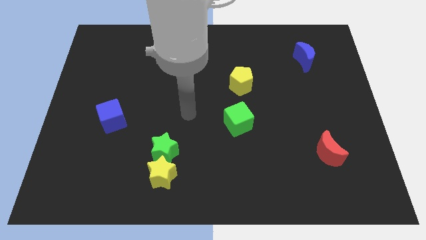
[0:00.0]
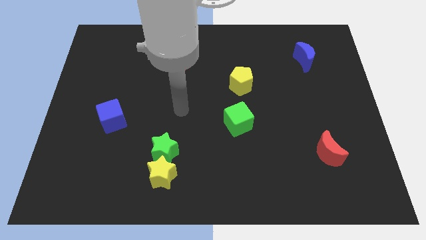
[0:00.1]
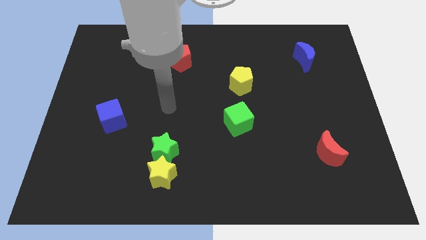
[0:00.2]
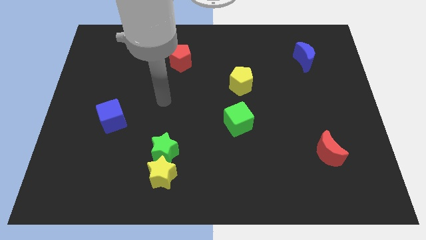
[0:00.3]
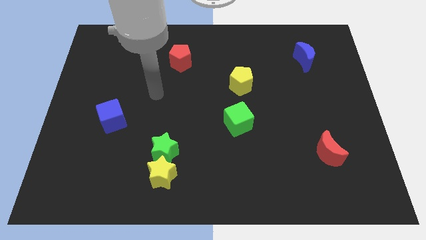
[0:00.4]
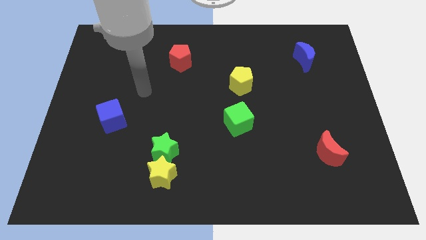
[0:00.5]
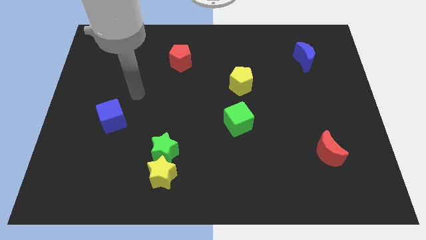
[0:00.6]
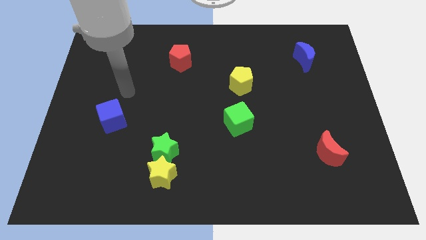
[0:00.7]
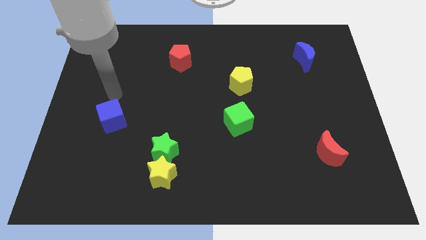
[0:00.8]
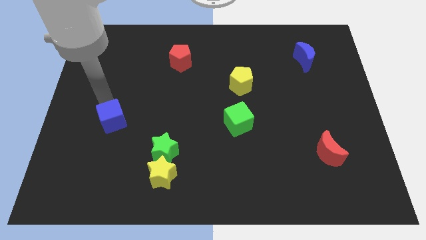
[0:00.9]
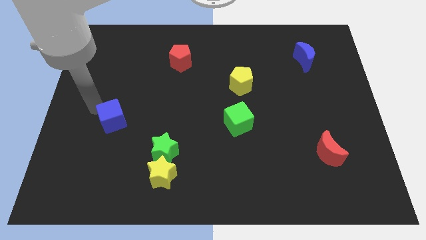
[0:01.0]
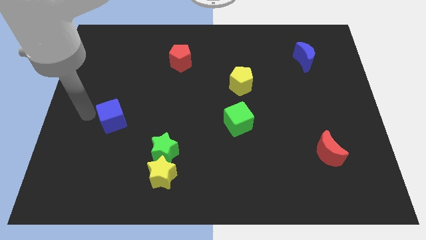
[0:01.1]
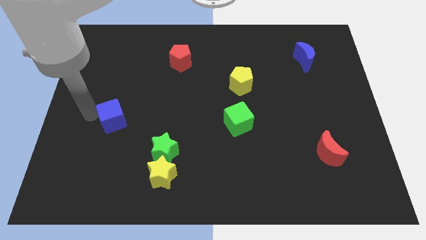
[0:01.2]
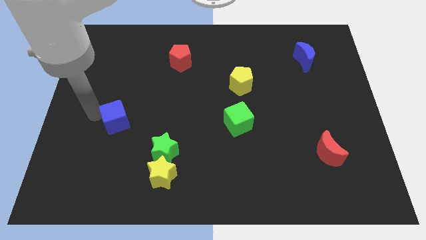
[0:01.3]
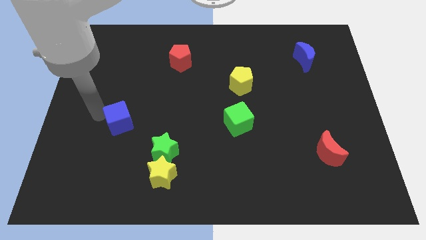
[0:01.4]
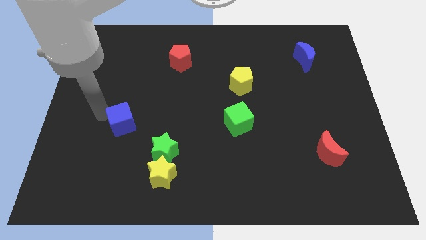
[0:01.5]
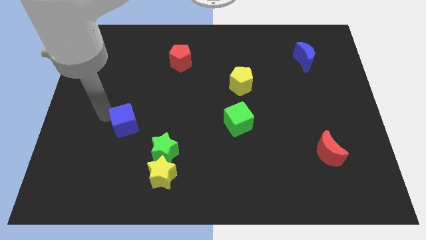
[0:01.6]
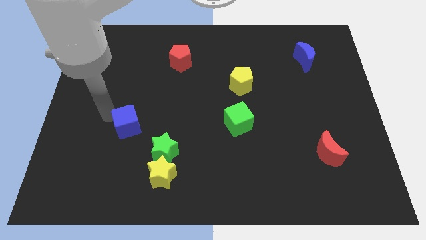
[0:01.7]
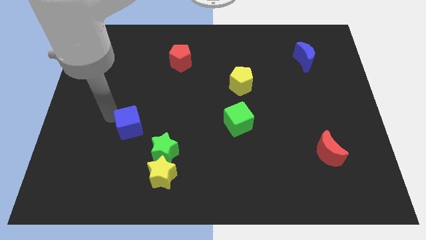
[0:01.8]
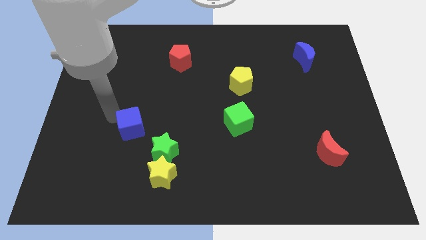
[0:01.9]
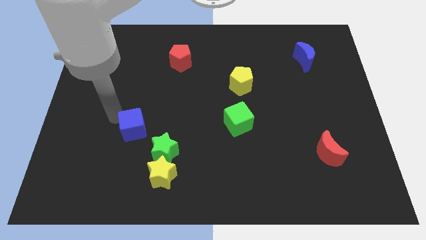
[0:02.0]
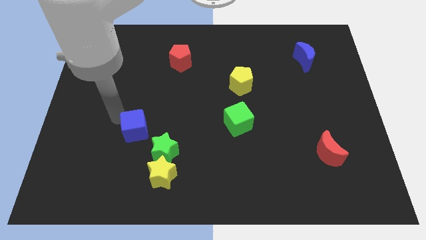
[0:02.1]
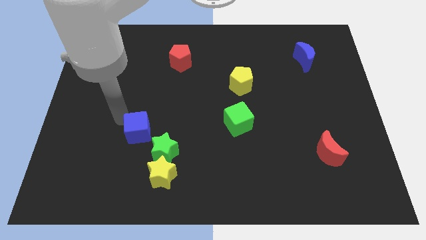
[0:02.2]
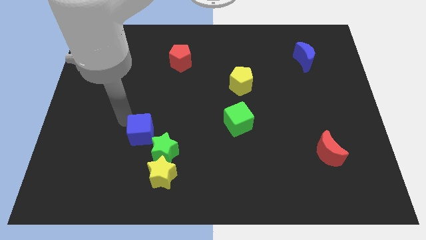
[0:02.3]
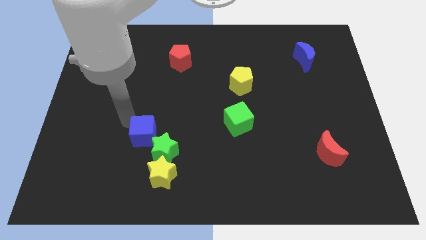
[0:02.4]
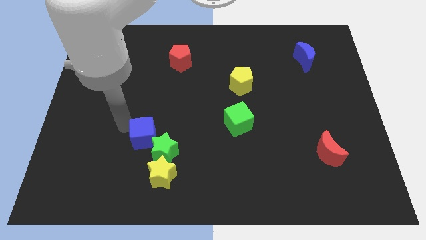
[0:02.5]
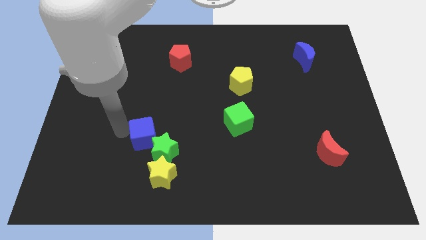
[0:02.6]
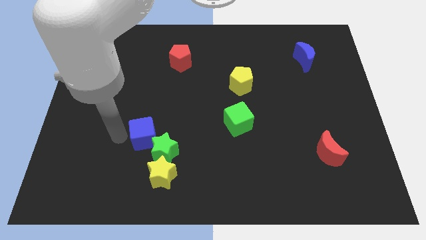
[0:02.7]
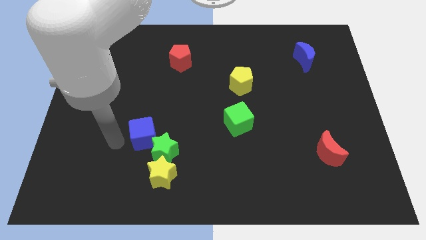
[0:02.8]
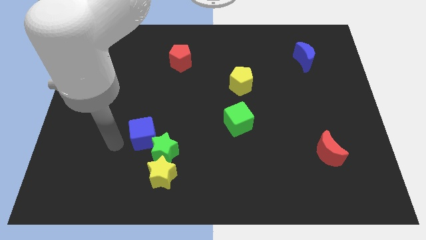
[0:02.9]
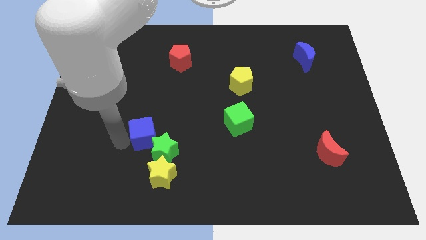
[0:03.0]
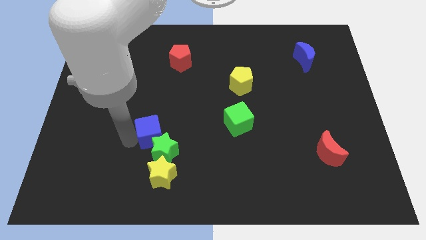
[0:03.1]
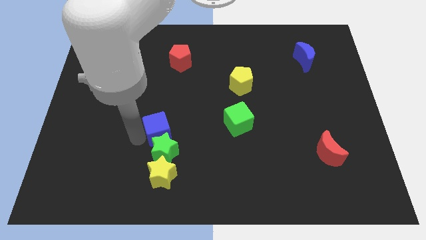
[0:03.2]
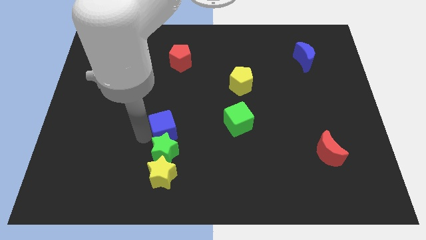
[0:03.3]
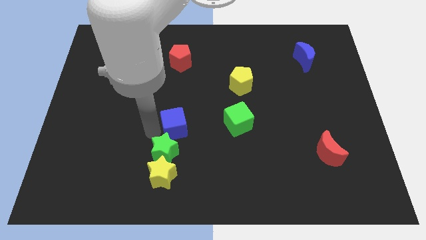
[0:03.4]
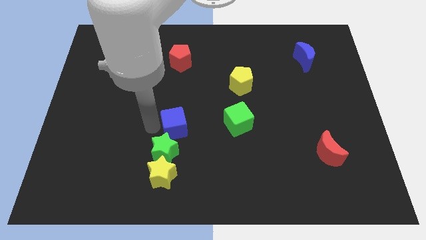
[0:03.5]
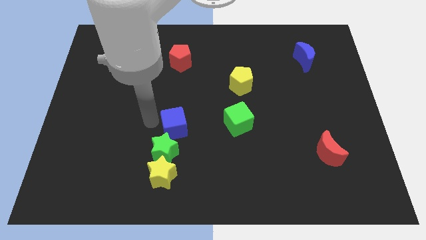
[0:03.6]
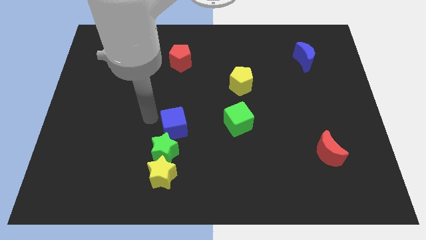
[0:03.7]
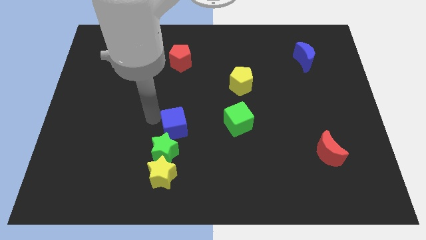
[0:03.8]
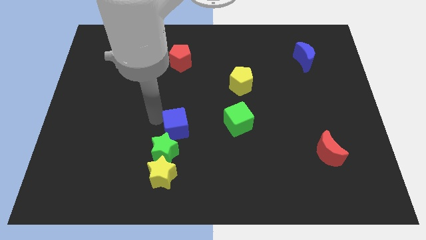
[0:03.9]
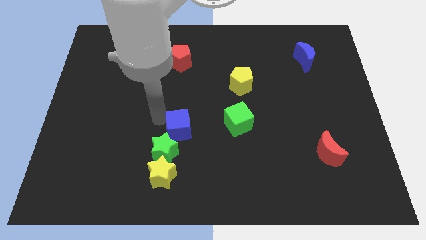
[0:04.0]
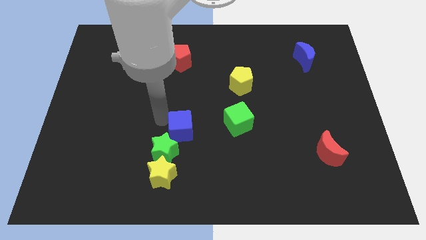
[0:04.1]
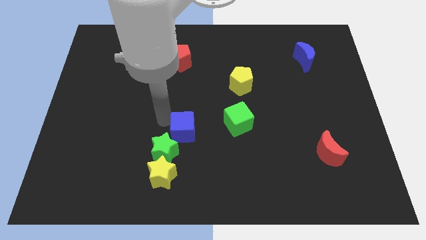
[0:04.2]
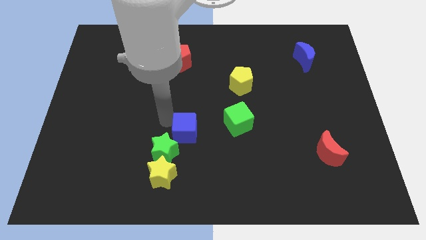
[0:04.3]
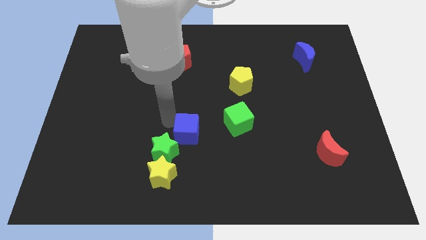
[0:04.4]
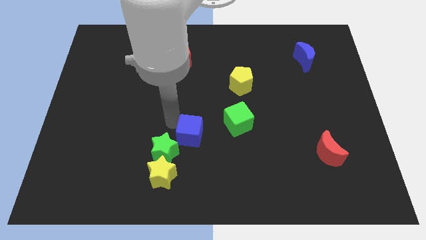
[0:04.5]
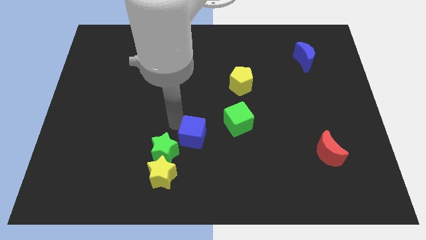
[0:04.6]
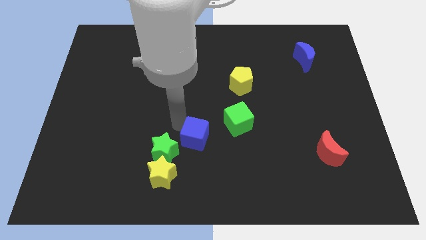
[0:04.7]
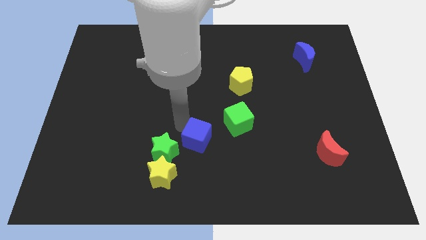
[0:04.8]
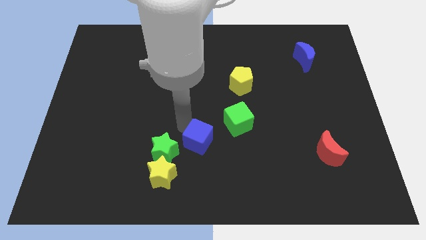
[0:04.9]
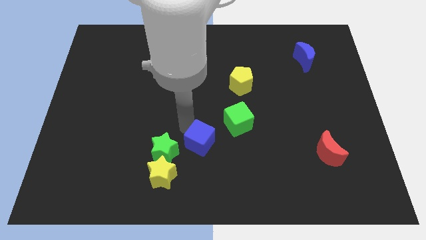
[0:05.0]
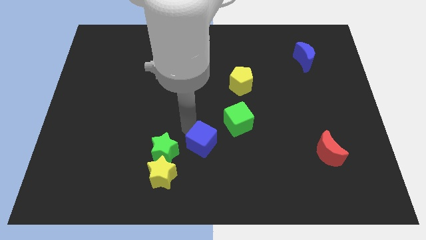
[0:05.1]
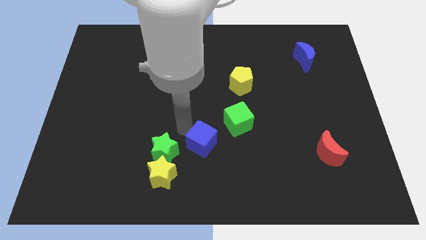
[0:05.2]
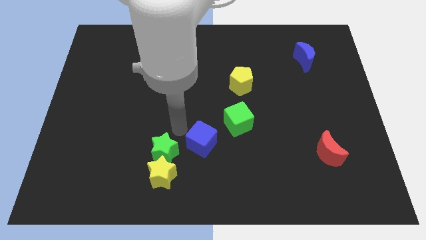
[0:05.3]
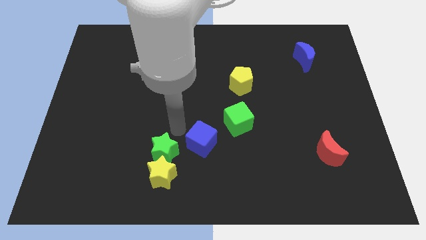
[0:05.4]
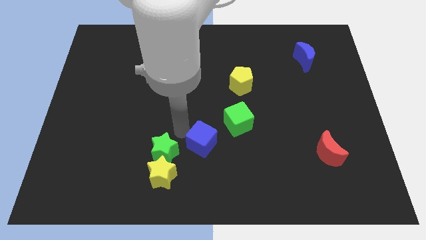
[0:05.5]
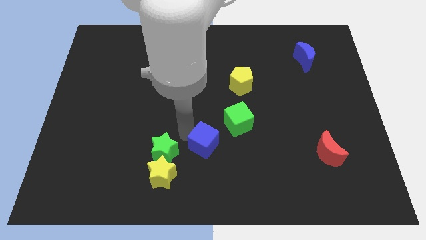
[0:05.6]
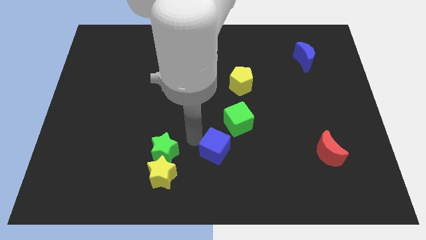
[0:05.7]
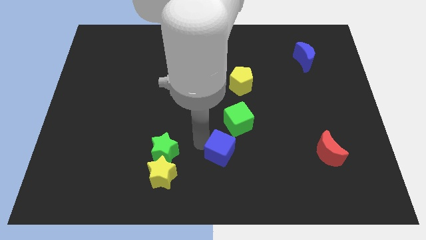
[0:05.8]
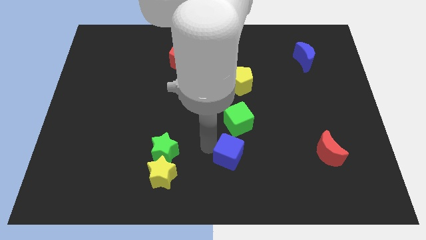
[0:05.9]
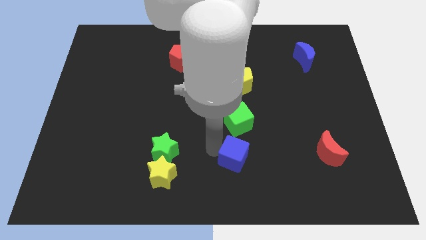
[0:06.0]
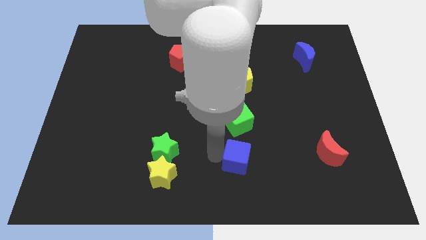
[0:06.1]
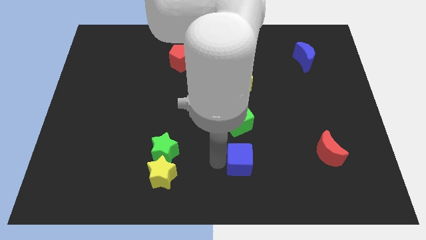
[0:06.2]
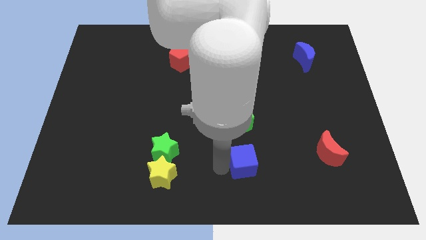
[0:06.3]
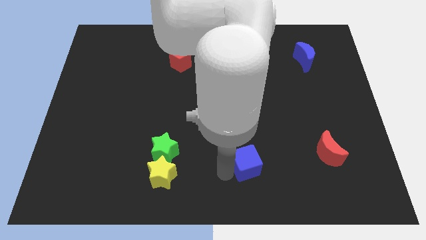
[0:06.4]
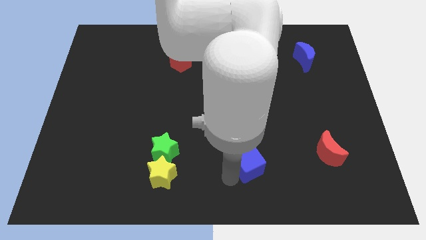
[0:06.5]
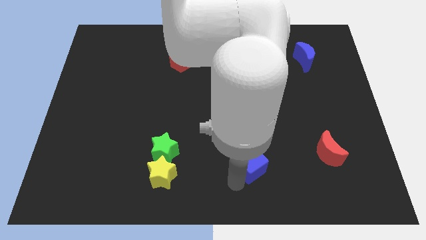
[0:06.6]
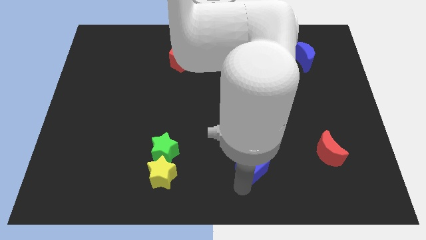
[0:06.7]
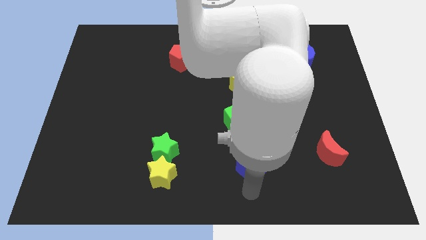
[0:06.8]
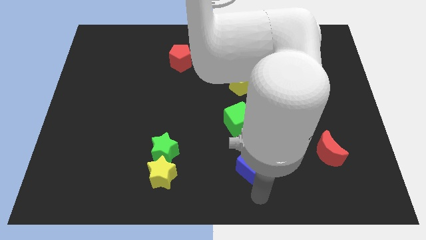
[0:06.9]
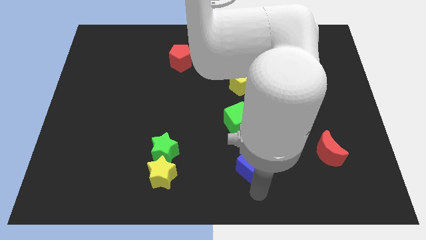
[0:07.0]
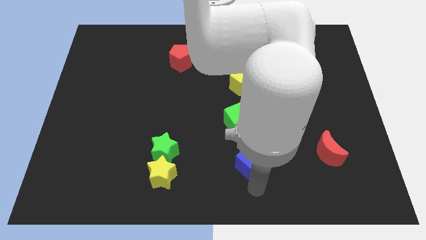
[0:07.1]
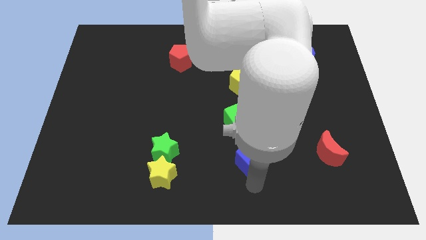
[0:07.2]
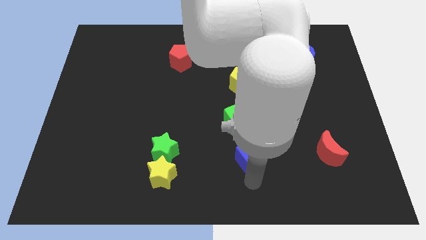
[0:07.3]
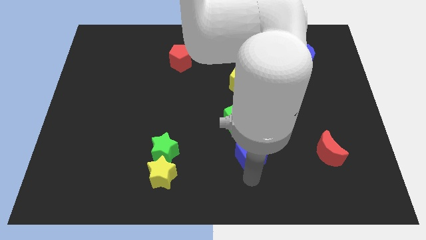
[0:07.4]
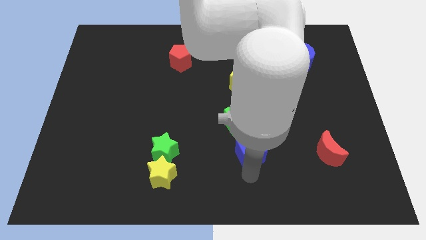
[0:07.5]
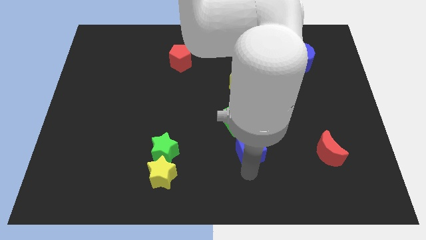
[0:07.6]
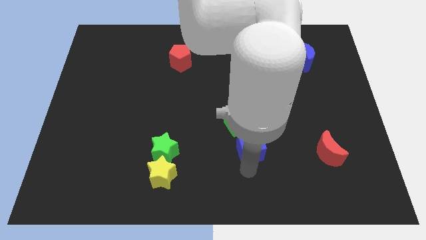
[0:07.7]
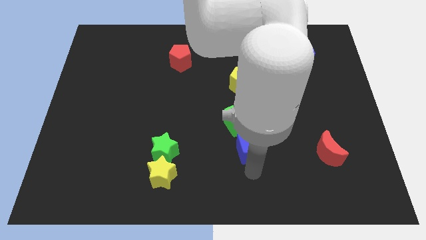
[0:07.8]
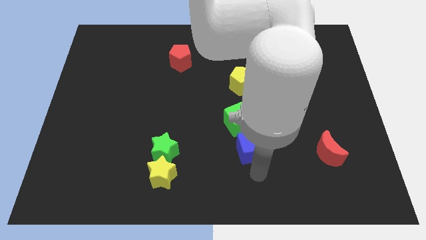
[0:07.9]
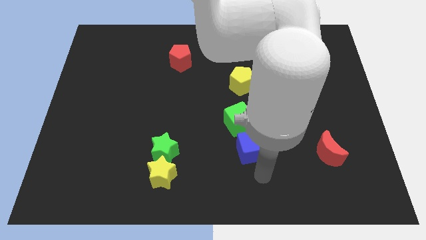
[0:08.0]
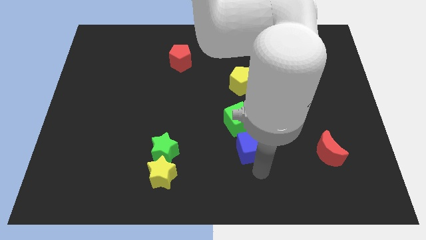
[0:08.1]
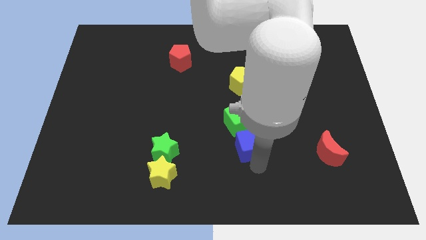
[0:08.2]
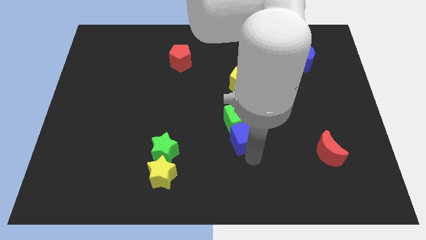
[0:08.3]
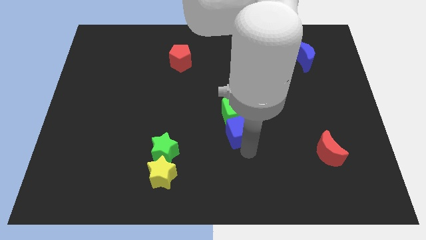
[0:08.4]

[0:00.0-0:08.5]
push the blue cube below the yellow pentagon
